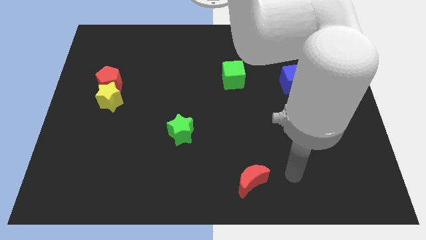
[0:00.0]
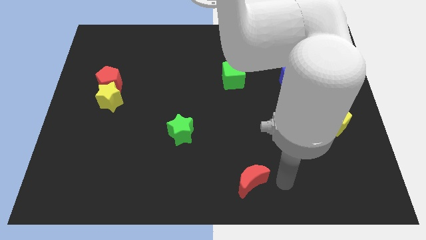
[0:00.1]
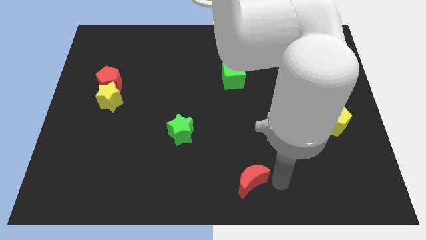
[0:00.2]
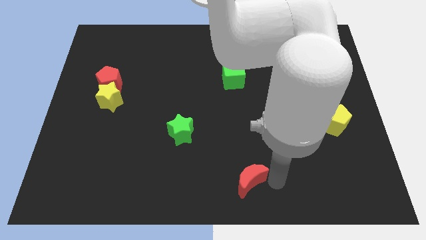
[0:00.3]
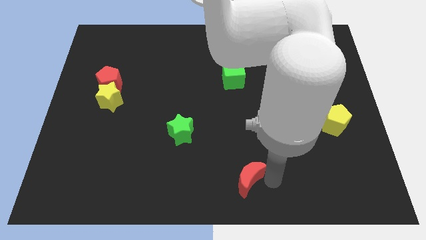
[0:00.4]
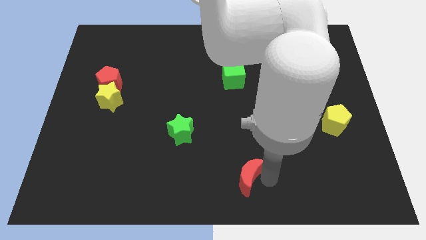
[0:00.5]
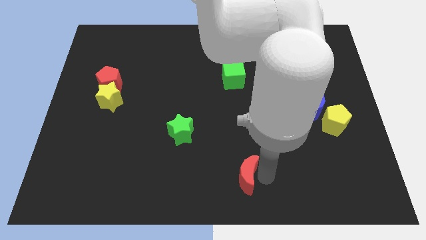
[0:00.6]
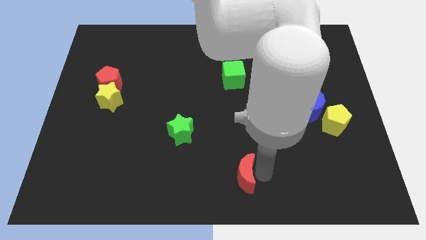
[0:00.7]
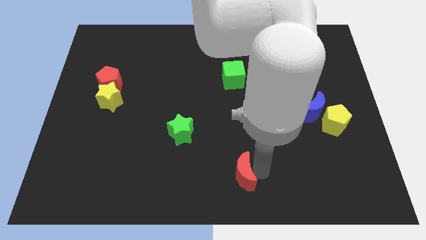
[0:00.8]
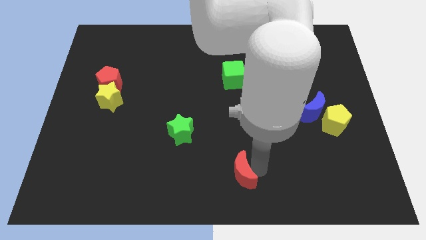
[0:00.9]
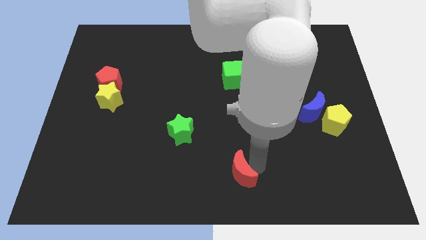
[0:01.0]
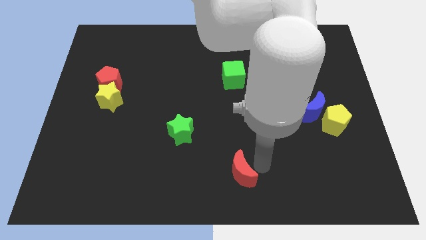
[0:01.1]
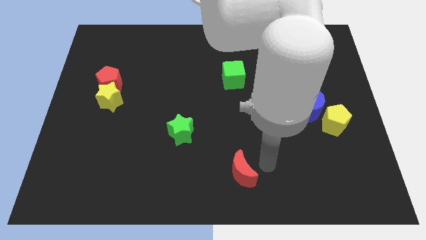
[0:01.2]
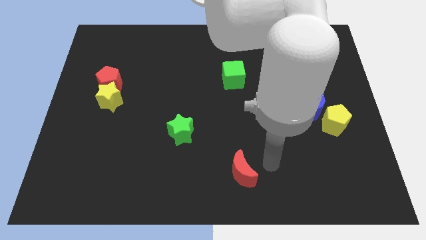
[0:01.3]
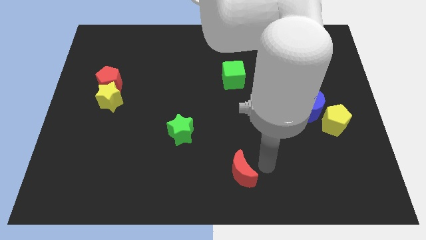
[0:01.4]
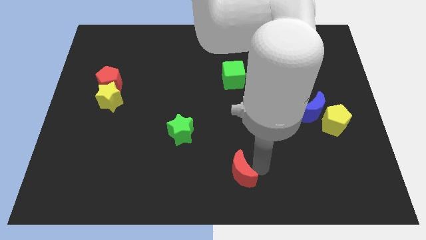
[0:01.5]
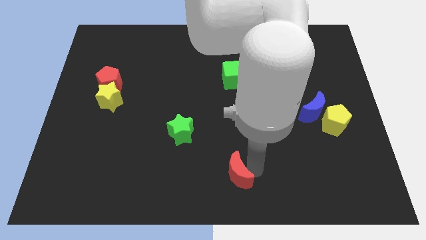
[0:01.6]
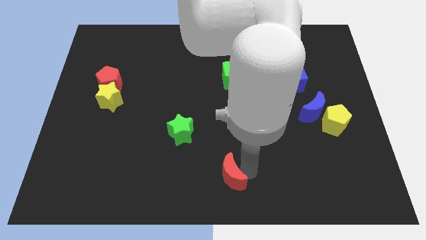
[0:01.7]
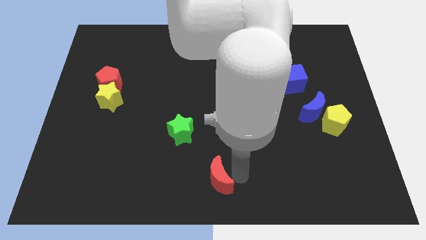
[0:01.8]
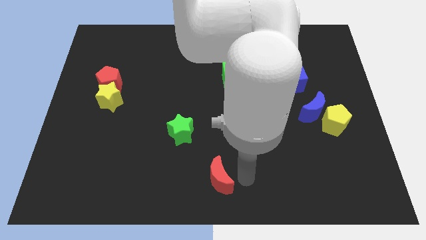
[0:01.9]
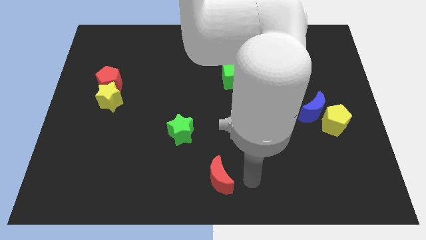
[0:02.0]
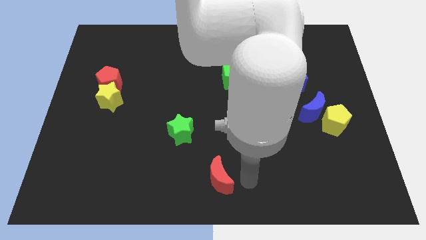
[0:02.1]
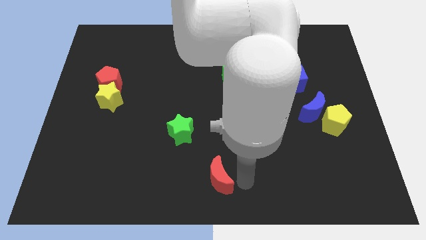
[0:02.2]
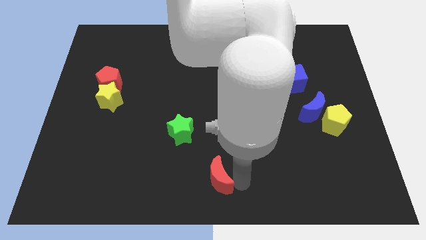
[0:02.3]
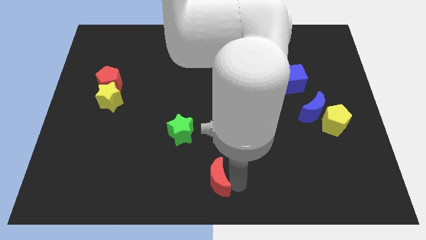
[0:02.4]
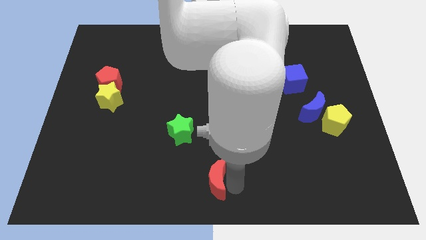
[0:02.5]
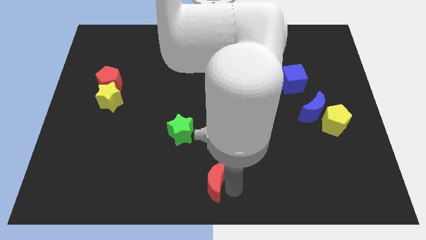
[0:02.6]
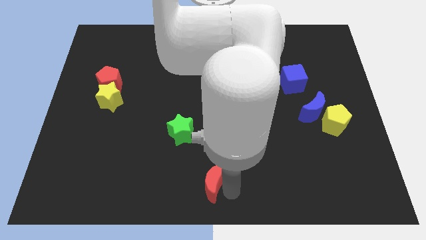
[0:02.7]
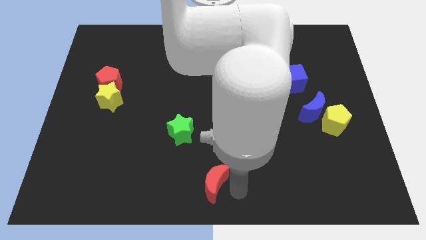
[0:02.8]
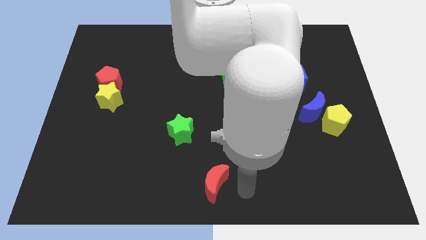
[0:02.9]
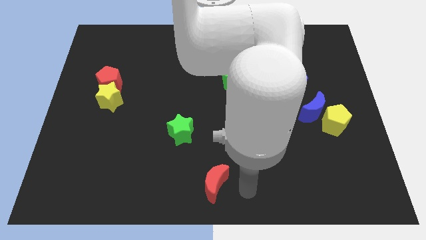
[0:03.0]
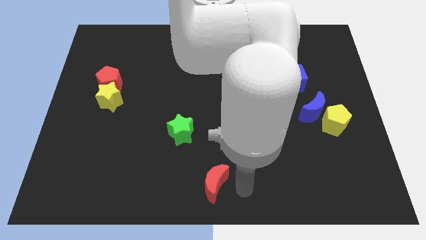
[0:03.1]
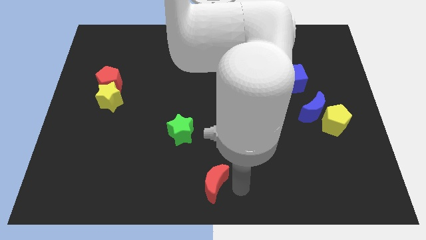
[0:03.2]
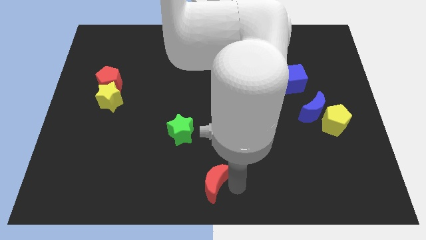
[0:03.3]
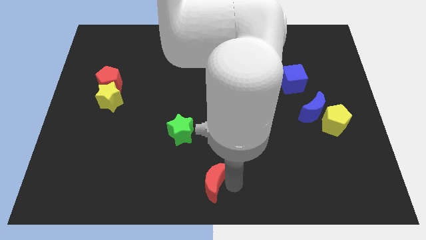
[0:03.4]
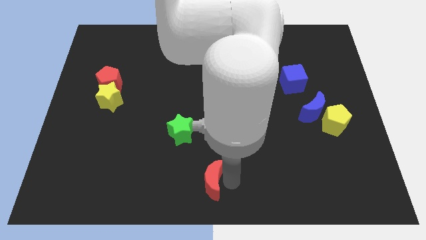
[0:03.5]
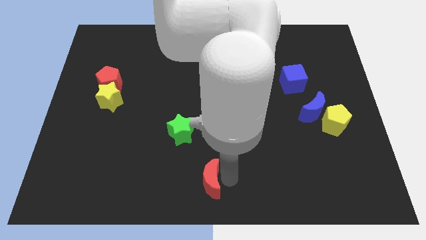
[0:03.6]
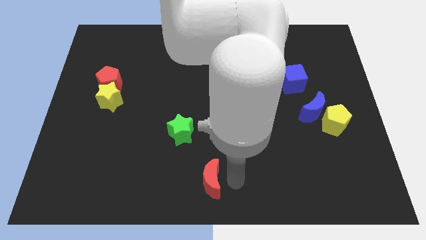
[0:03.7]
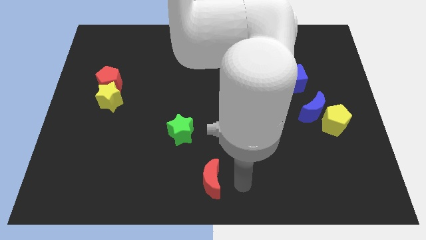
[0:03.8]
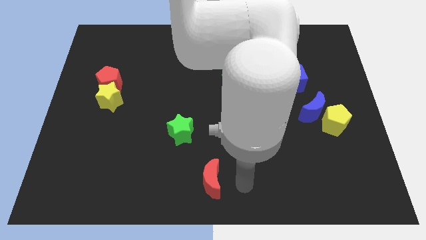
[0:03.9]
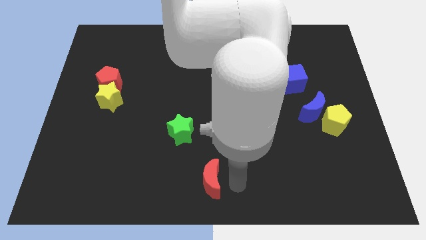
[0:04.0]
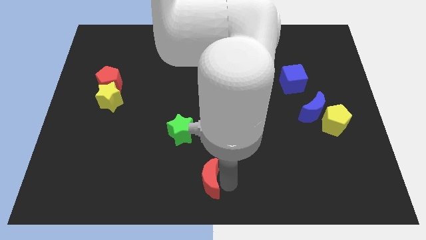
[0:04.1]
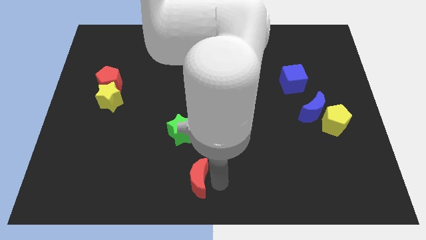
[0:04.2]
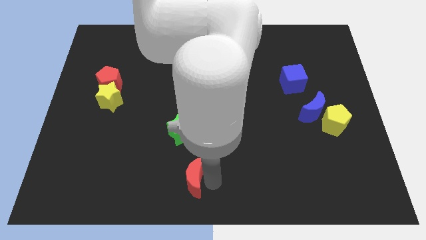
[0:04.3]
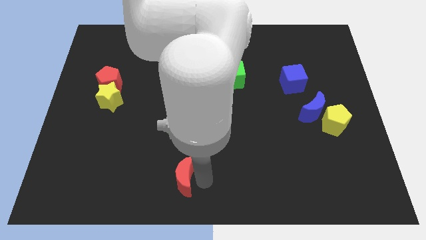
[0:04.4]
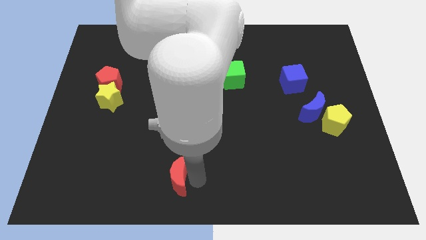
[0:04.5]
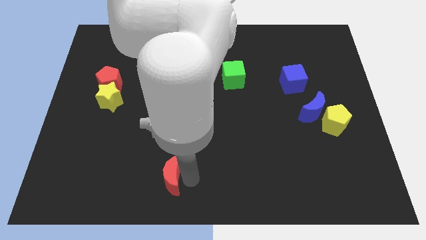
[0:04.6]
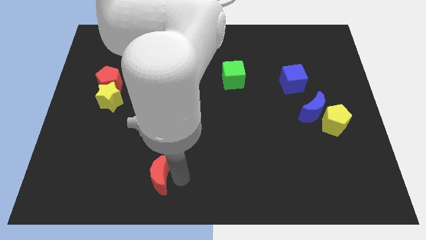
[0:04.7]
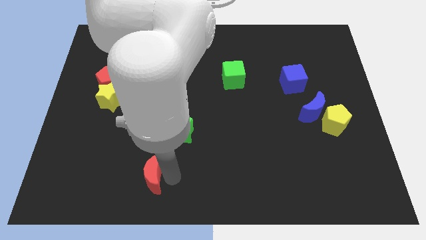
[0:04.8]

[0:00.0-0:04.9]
push the red moon left

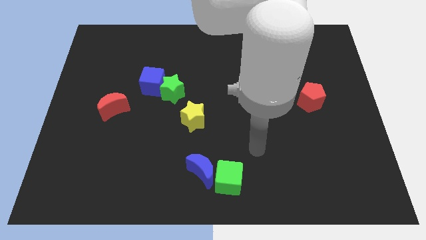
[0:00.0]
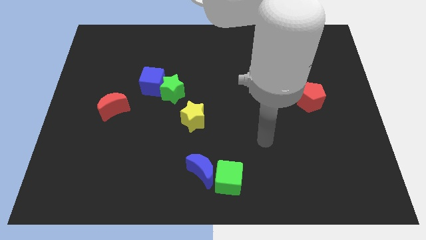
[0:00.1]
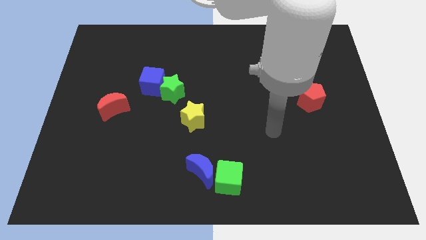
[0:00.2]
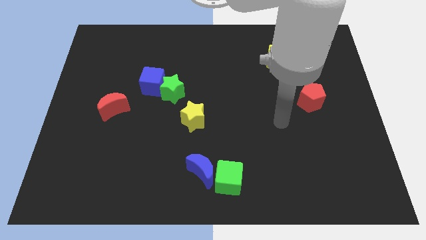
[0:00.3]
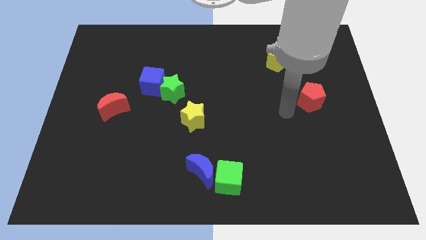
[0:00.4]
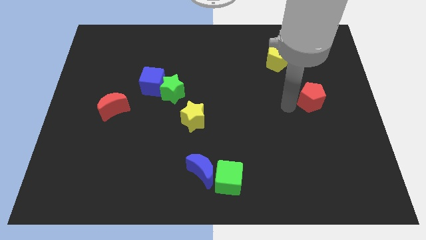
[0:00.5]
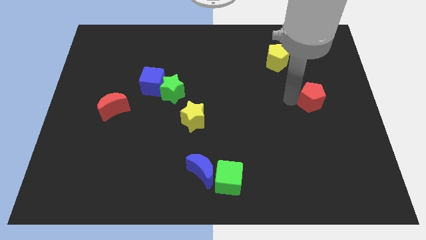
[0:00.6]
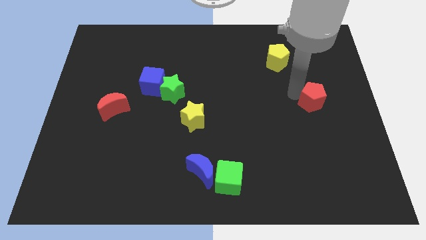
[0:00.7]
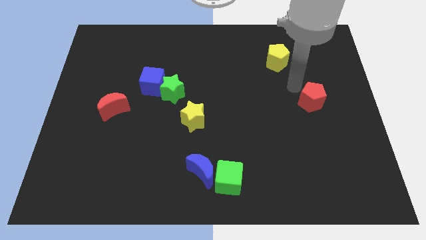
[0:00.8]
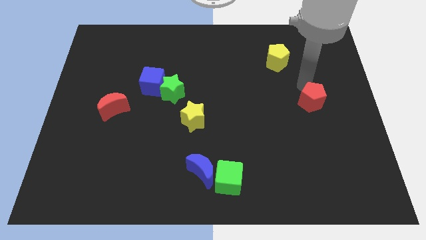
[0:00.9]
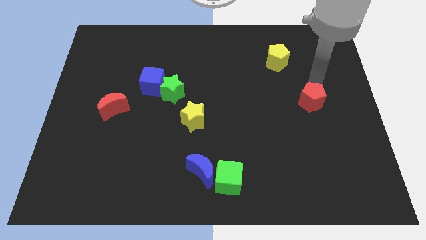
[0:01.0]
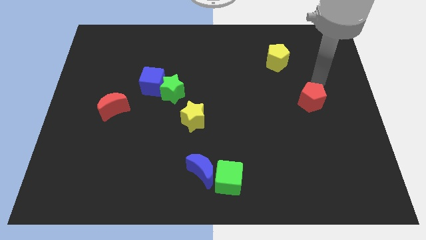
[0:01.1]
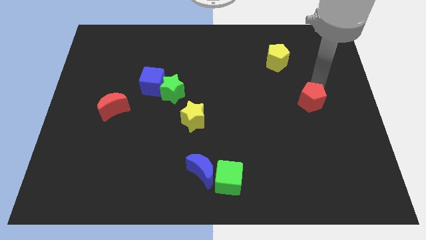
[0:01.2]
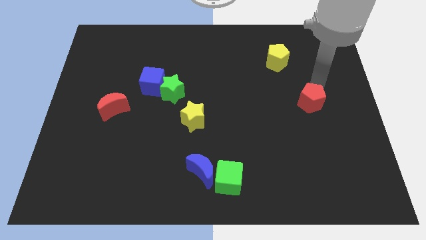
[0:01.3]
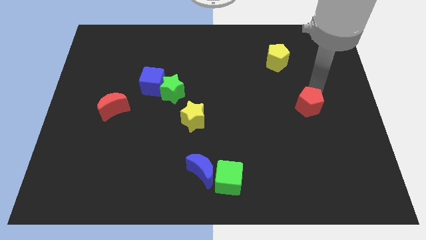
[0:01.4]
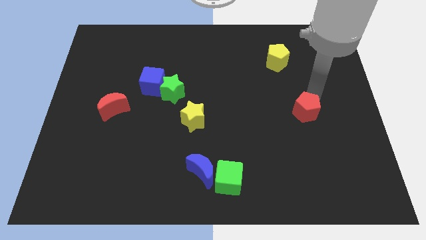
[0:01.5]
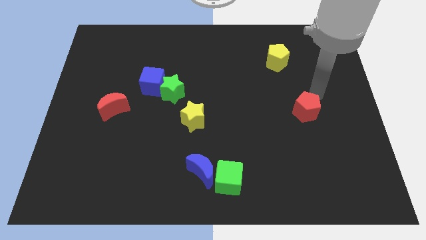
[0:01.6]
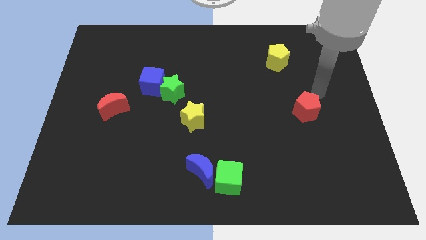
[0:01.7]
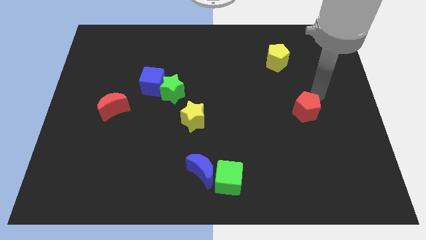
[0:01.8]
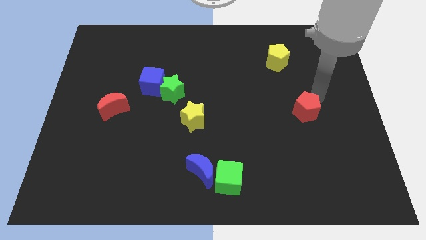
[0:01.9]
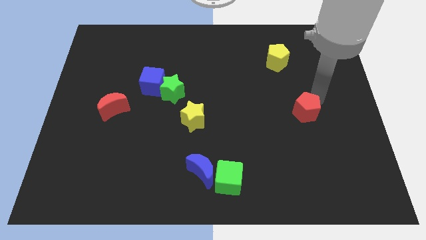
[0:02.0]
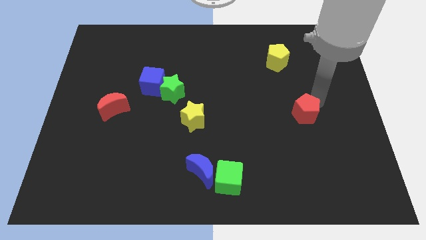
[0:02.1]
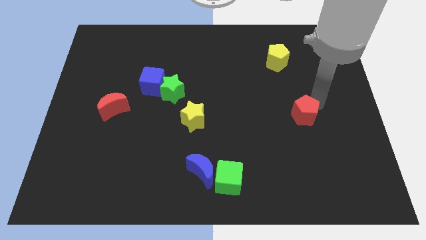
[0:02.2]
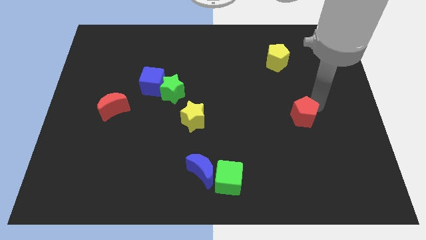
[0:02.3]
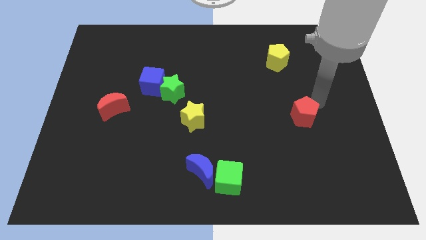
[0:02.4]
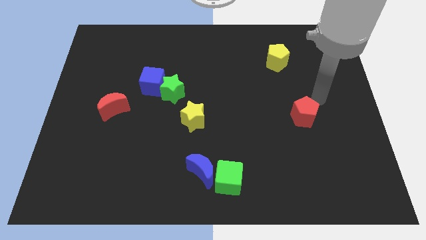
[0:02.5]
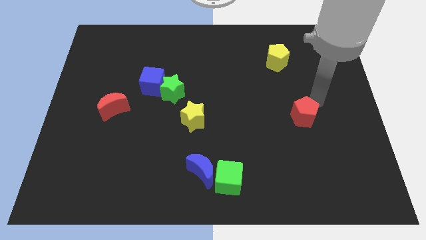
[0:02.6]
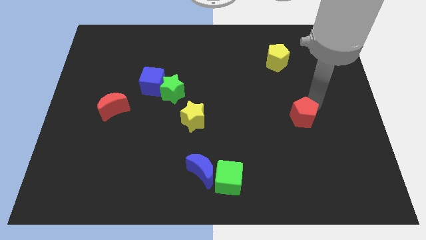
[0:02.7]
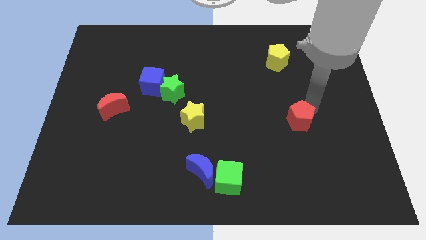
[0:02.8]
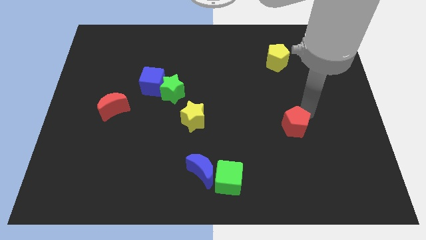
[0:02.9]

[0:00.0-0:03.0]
slightly push the red pentagon downwards and then to the left
